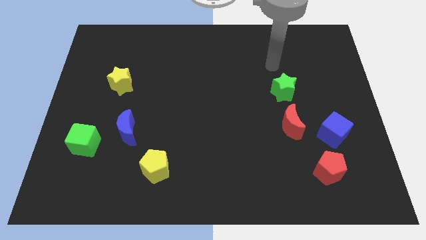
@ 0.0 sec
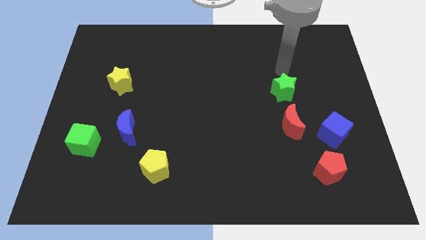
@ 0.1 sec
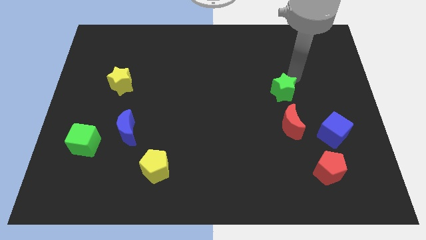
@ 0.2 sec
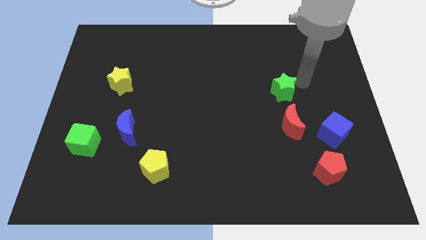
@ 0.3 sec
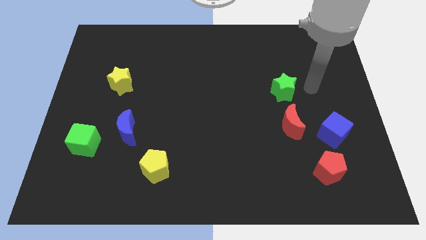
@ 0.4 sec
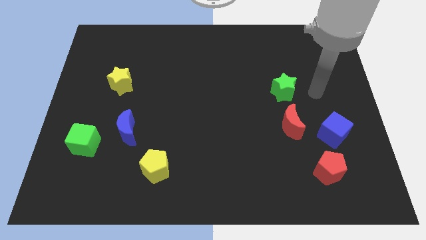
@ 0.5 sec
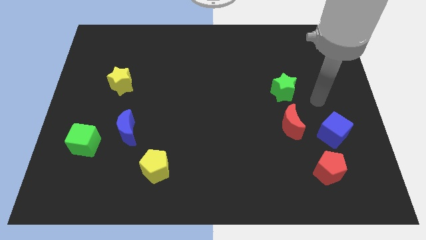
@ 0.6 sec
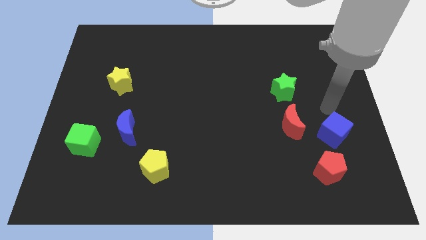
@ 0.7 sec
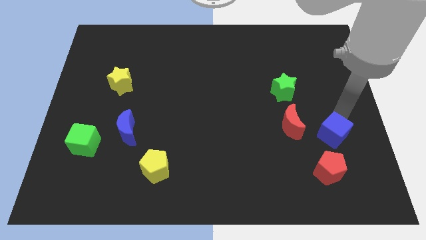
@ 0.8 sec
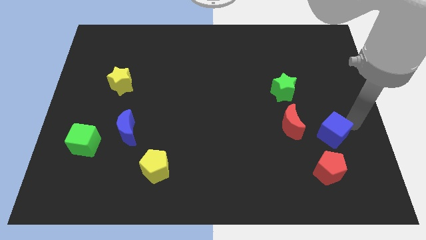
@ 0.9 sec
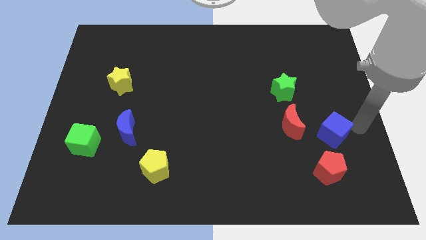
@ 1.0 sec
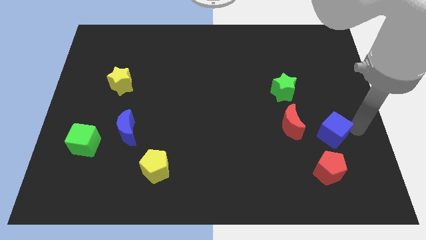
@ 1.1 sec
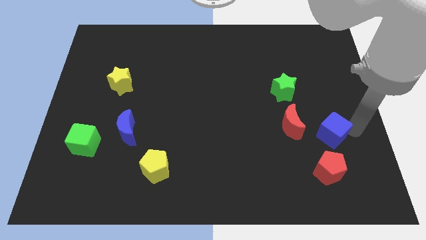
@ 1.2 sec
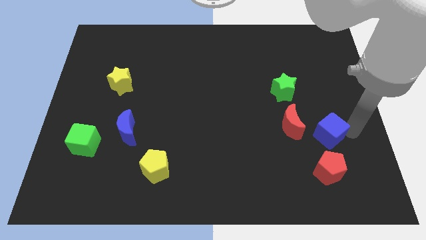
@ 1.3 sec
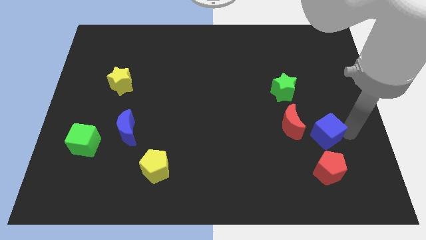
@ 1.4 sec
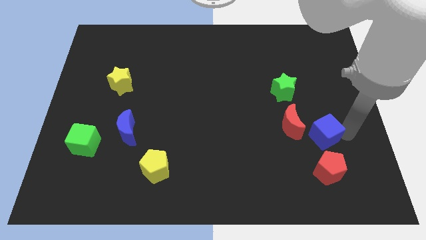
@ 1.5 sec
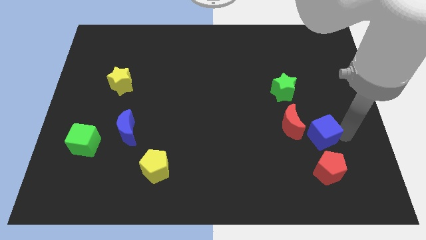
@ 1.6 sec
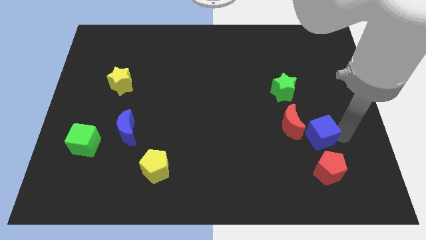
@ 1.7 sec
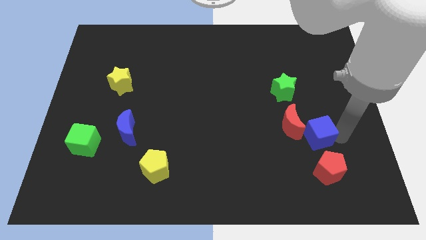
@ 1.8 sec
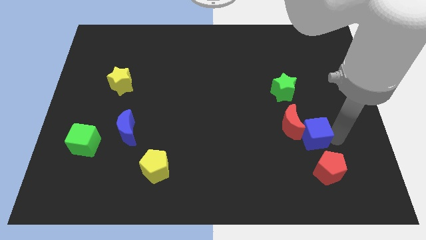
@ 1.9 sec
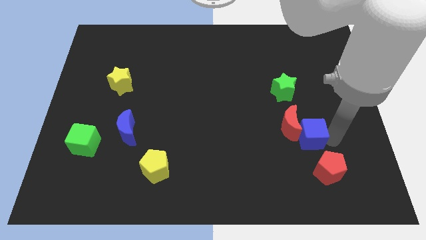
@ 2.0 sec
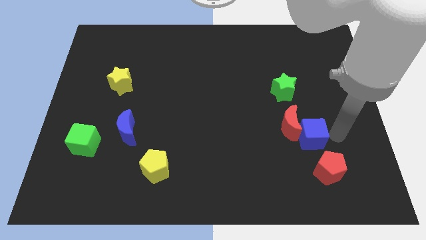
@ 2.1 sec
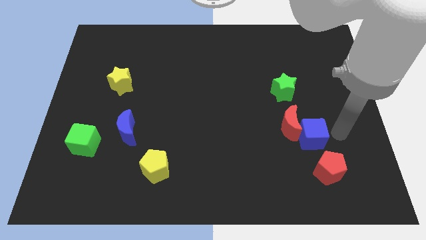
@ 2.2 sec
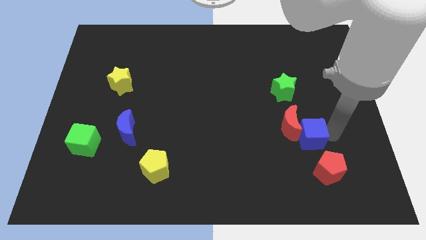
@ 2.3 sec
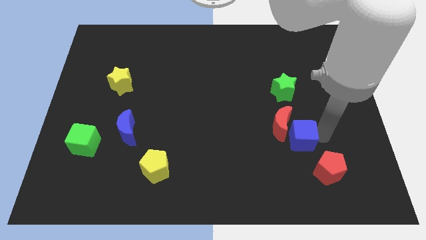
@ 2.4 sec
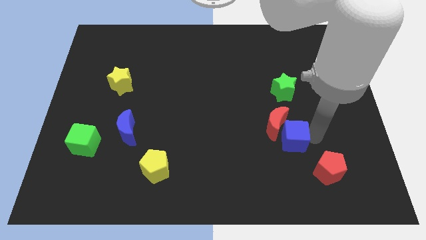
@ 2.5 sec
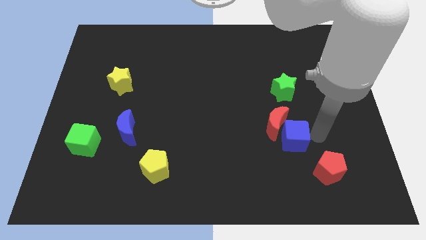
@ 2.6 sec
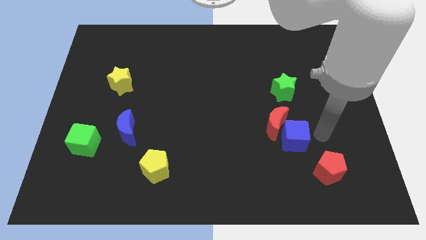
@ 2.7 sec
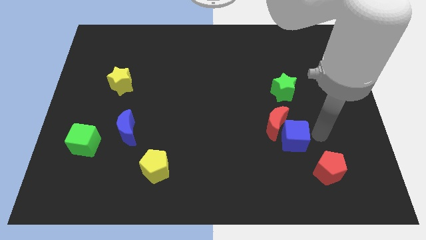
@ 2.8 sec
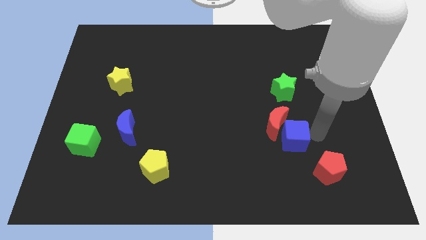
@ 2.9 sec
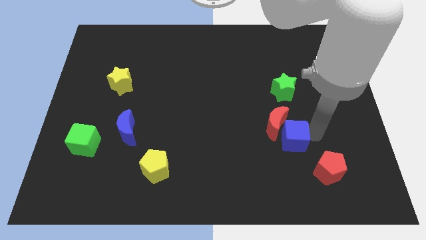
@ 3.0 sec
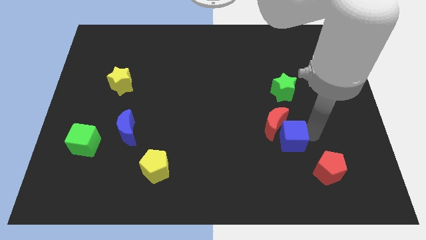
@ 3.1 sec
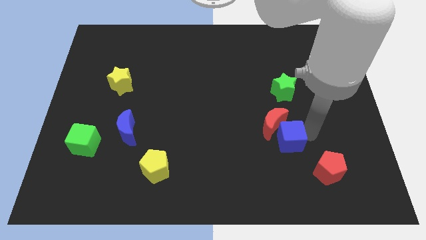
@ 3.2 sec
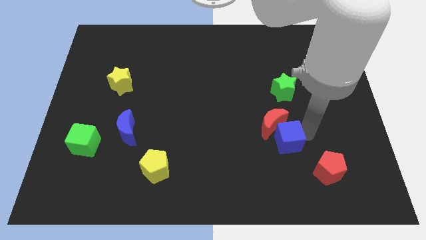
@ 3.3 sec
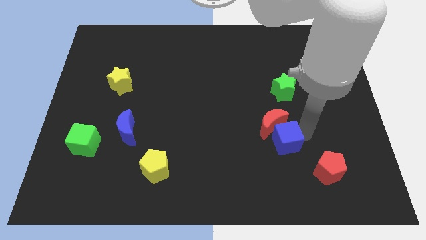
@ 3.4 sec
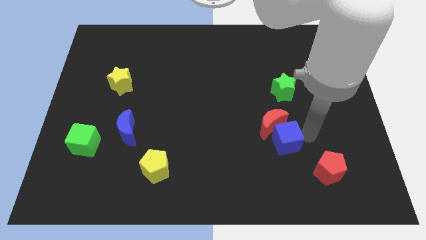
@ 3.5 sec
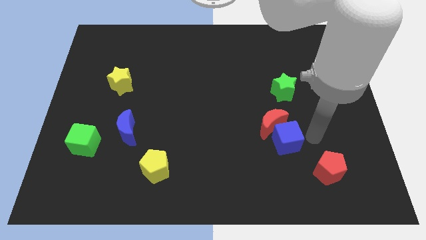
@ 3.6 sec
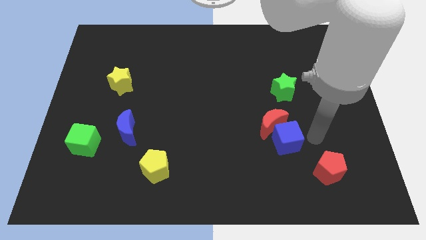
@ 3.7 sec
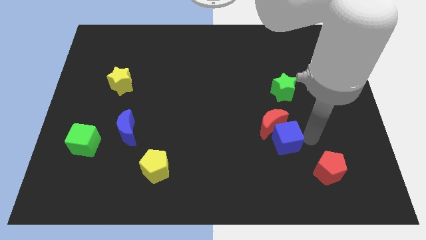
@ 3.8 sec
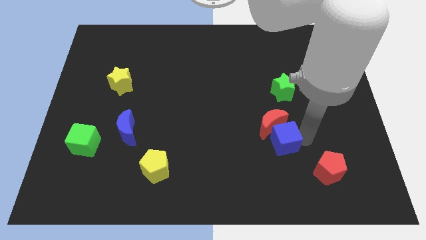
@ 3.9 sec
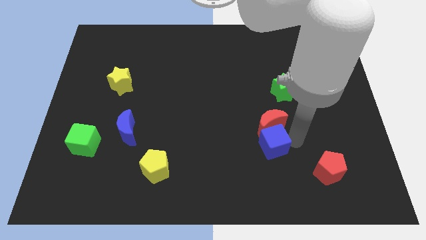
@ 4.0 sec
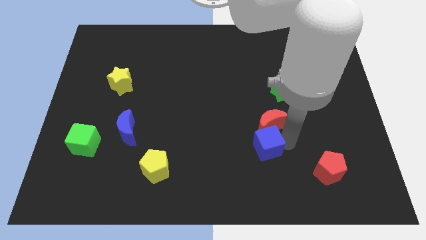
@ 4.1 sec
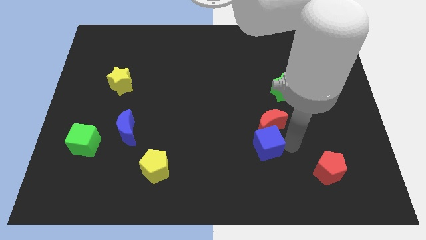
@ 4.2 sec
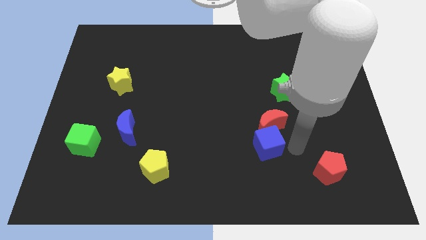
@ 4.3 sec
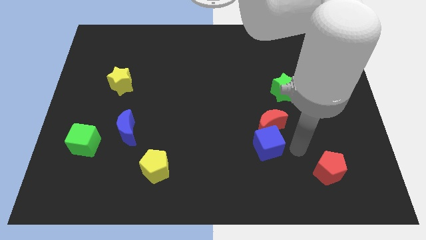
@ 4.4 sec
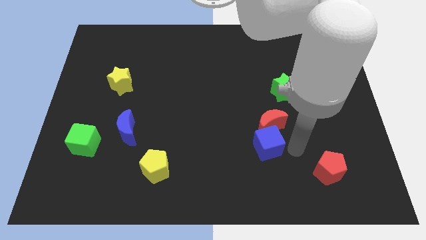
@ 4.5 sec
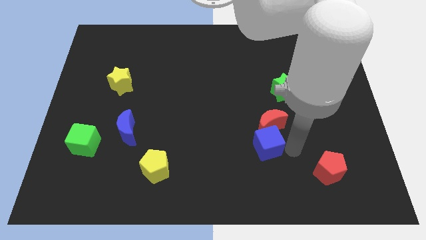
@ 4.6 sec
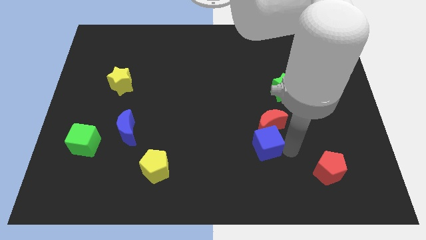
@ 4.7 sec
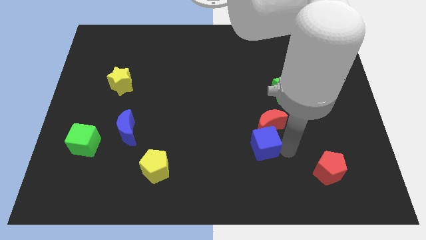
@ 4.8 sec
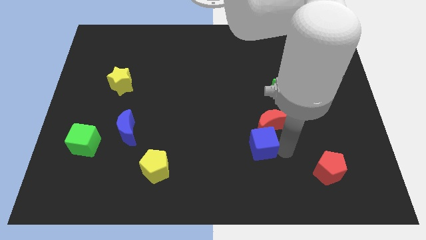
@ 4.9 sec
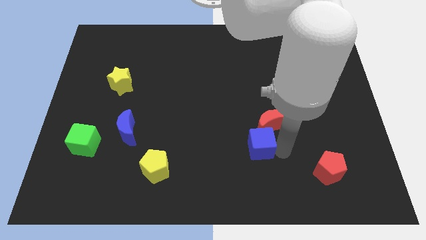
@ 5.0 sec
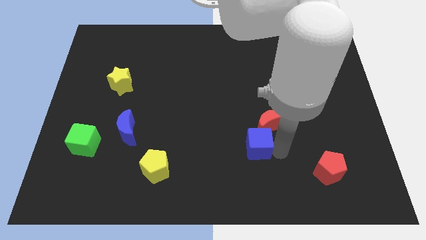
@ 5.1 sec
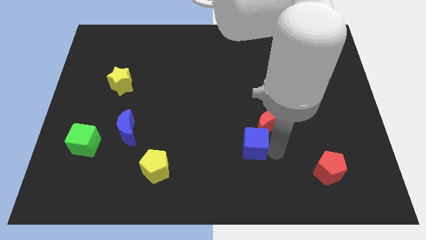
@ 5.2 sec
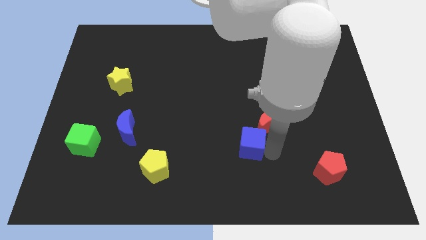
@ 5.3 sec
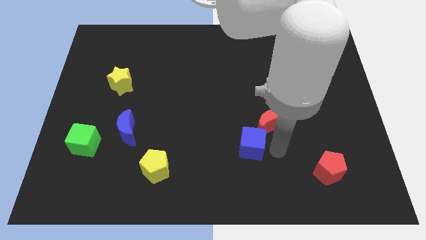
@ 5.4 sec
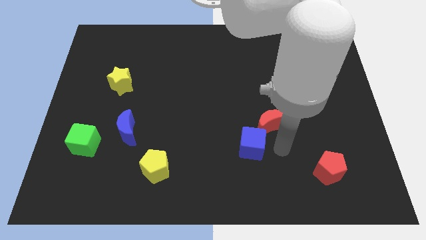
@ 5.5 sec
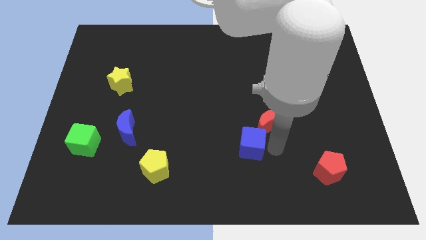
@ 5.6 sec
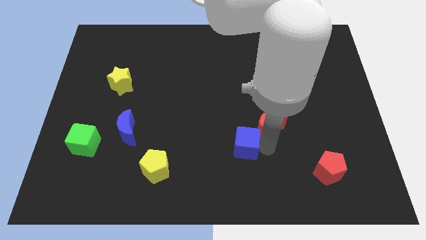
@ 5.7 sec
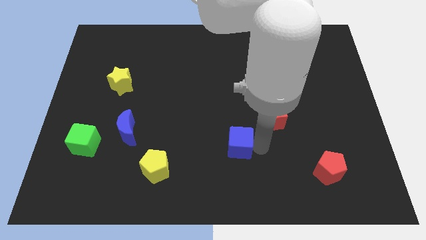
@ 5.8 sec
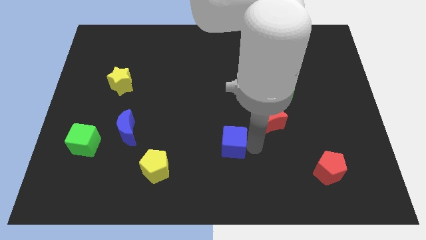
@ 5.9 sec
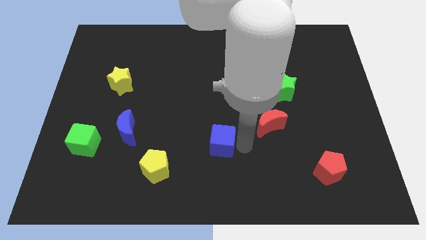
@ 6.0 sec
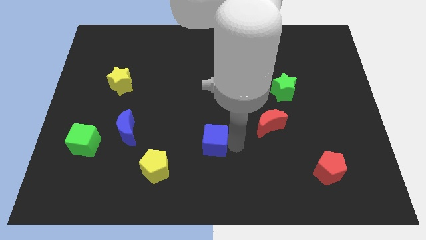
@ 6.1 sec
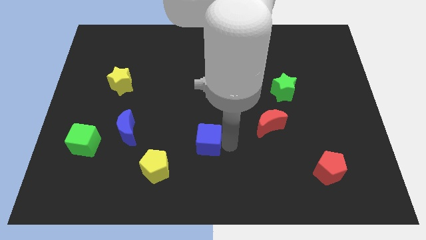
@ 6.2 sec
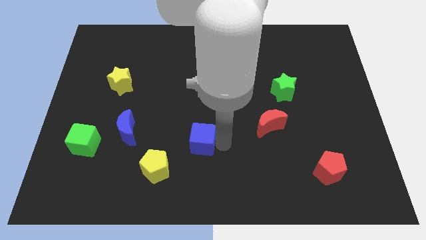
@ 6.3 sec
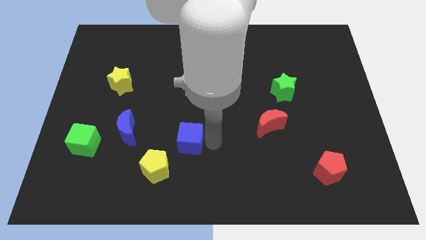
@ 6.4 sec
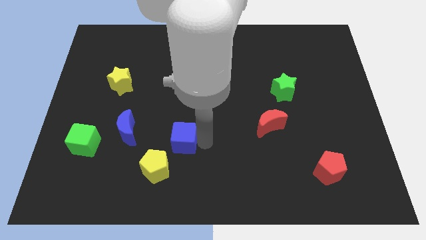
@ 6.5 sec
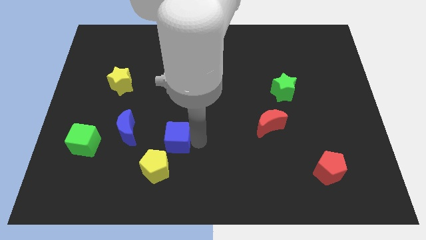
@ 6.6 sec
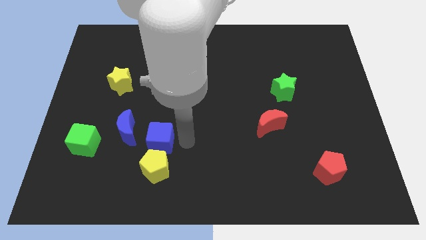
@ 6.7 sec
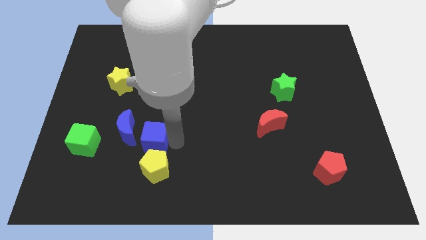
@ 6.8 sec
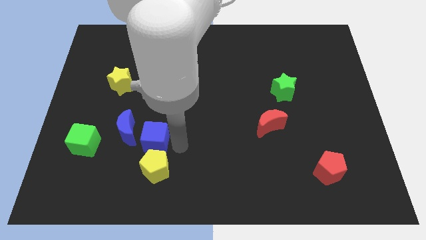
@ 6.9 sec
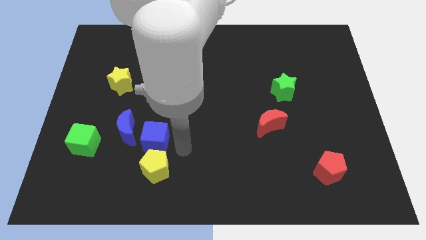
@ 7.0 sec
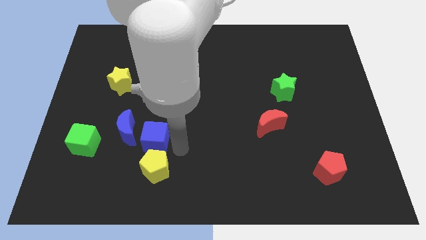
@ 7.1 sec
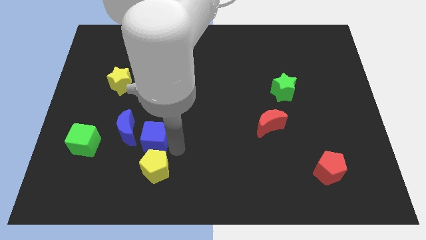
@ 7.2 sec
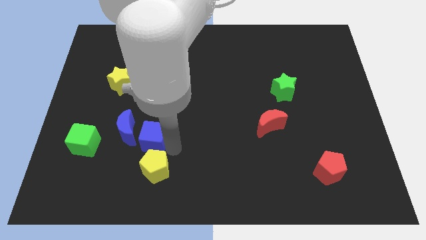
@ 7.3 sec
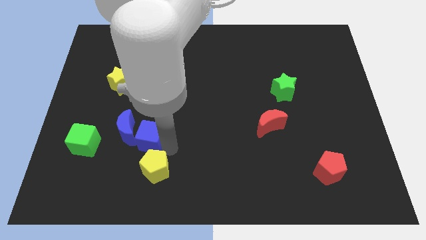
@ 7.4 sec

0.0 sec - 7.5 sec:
push the blue cube towards the blue moon

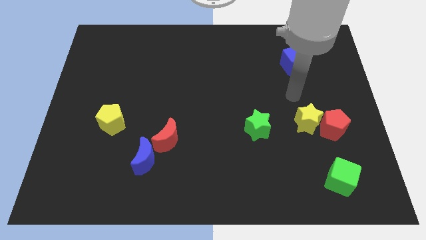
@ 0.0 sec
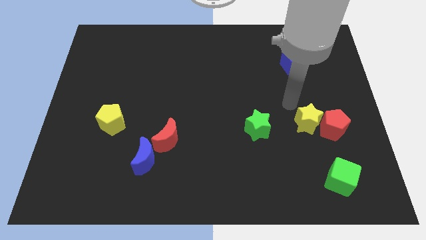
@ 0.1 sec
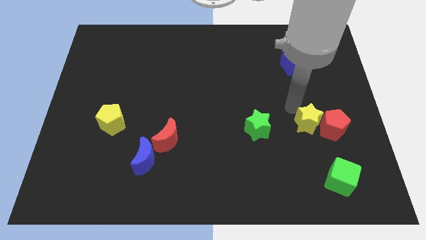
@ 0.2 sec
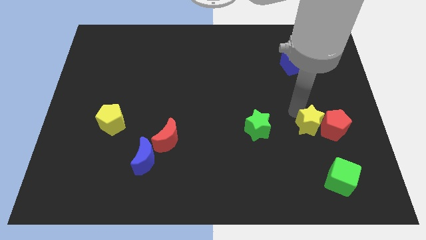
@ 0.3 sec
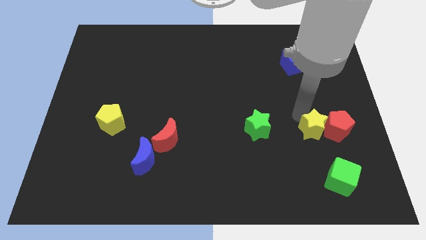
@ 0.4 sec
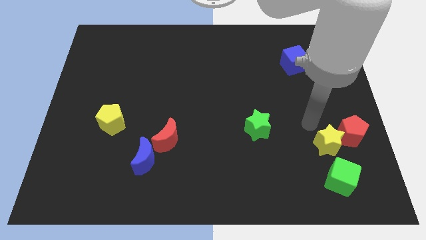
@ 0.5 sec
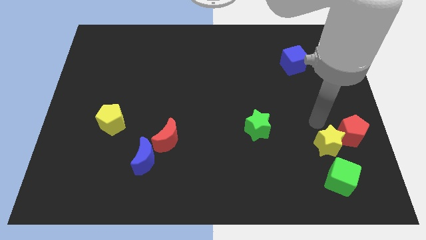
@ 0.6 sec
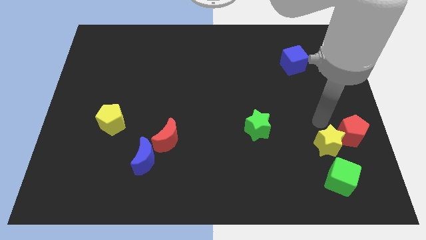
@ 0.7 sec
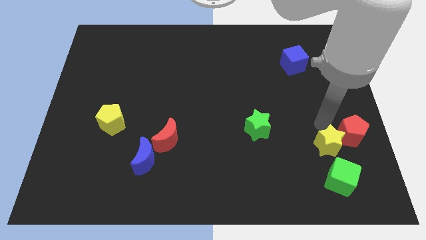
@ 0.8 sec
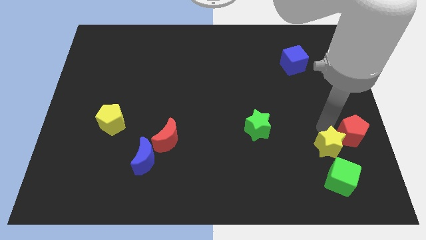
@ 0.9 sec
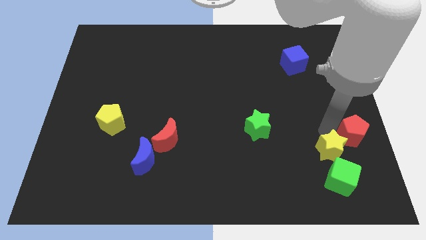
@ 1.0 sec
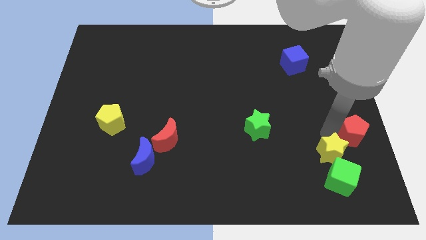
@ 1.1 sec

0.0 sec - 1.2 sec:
push the yellow star close to the green cube
